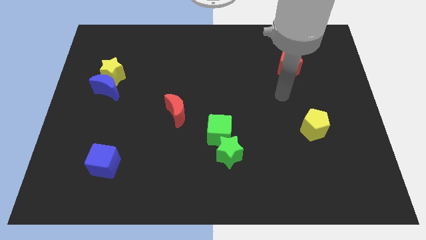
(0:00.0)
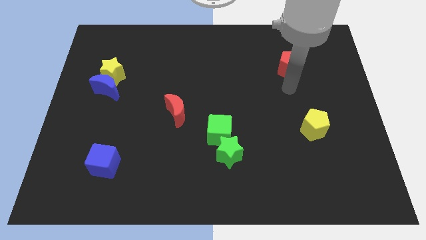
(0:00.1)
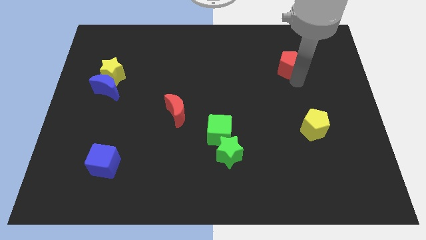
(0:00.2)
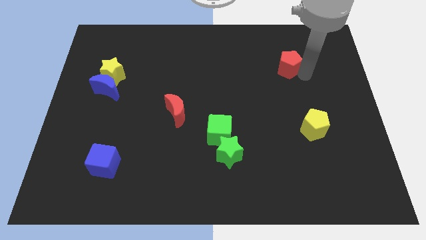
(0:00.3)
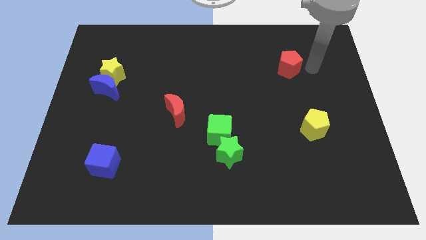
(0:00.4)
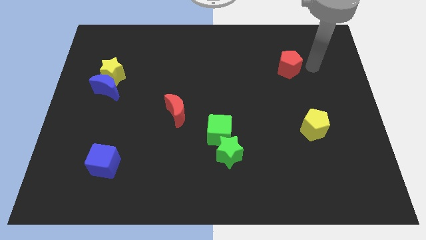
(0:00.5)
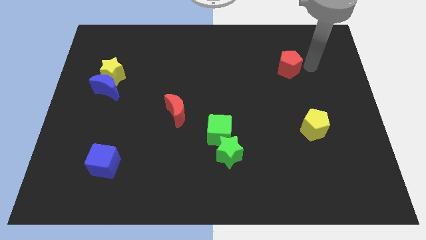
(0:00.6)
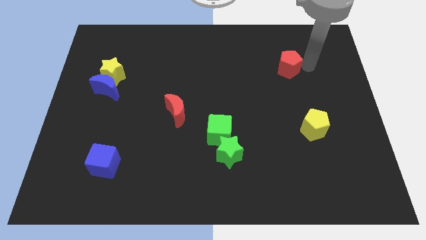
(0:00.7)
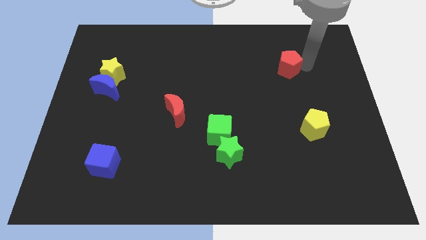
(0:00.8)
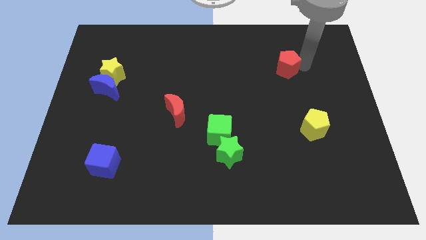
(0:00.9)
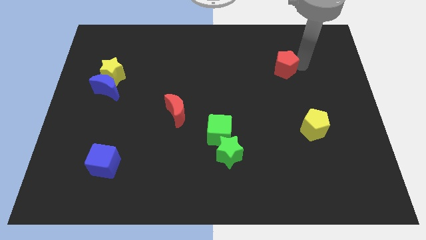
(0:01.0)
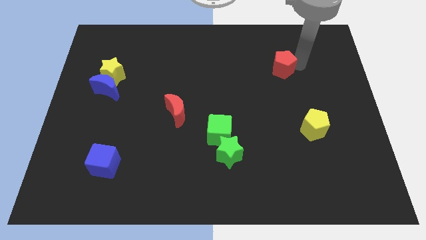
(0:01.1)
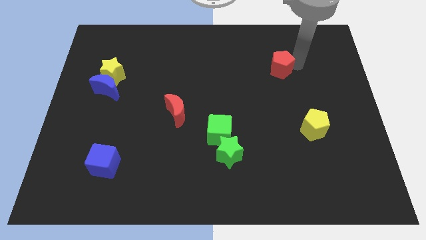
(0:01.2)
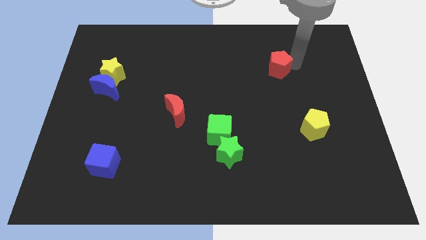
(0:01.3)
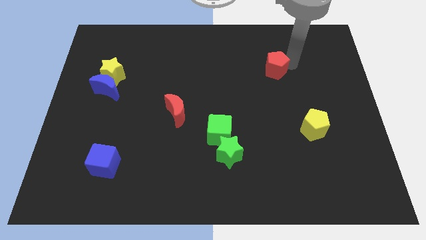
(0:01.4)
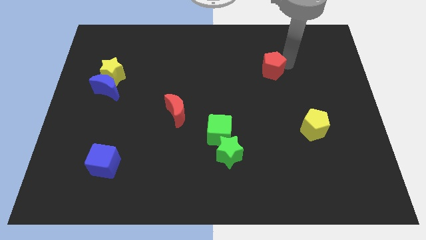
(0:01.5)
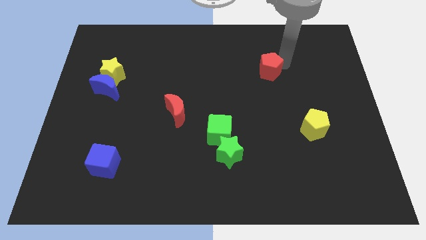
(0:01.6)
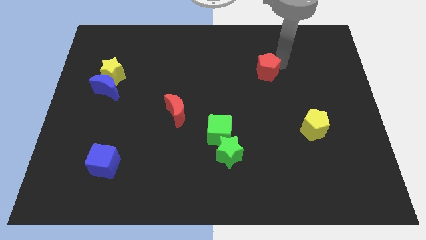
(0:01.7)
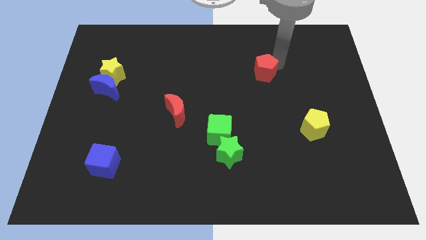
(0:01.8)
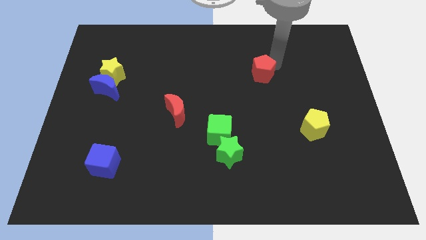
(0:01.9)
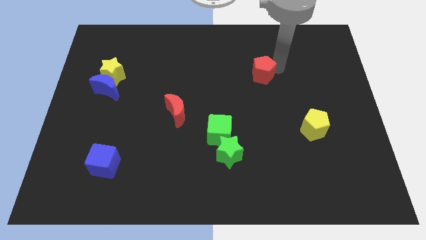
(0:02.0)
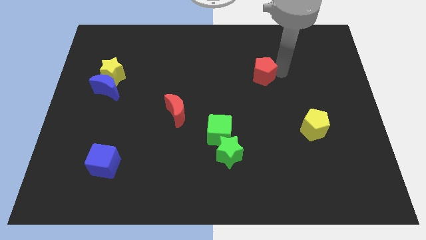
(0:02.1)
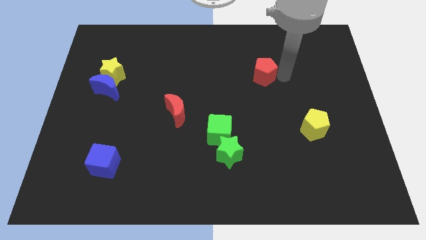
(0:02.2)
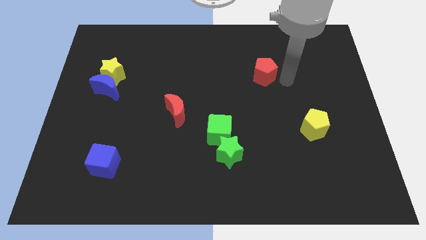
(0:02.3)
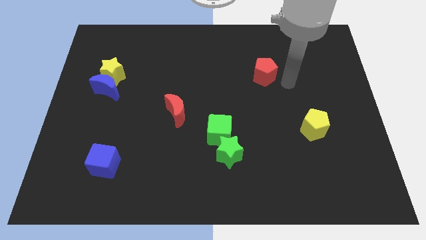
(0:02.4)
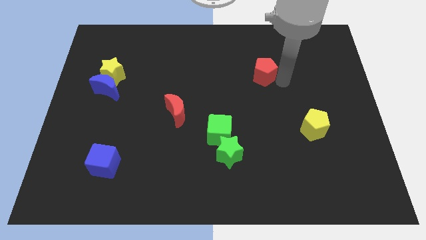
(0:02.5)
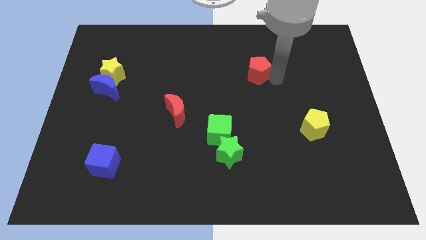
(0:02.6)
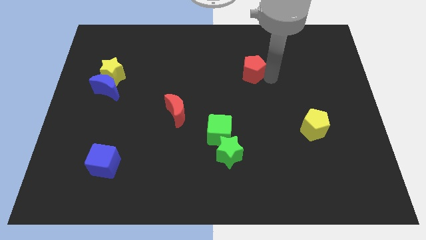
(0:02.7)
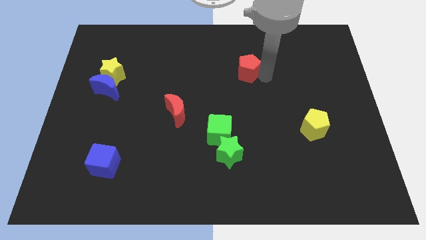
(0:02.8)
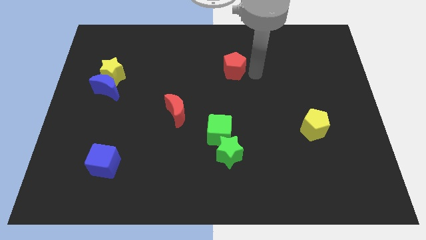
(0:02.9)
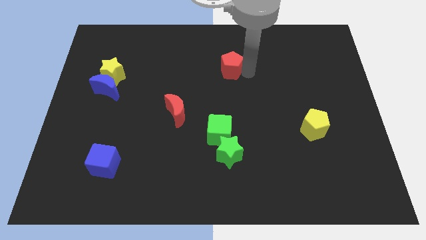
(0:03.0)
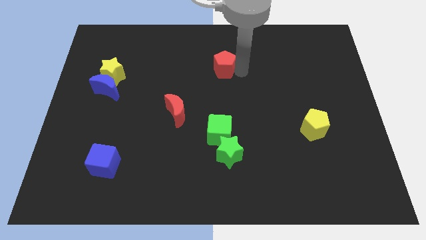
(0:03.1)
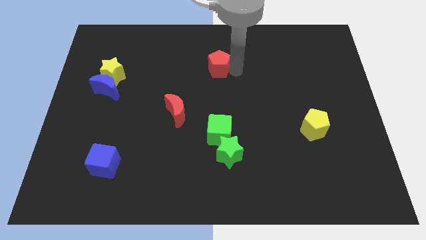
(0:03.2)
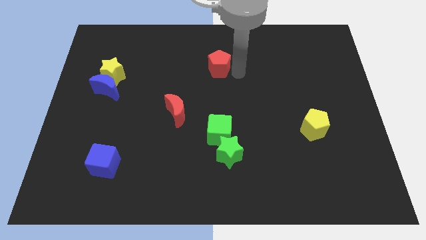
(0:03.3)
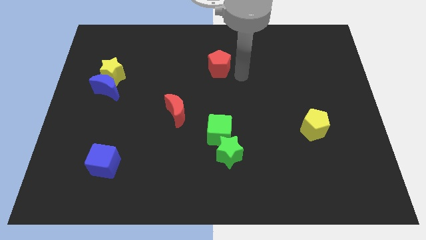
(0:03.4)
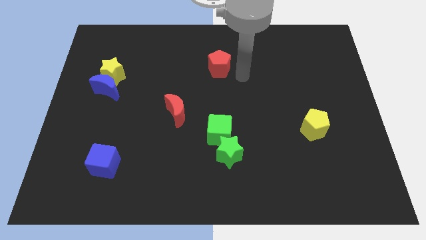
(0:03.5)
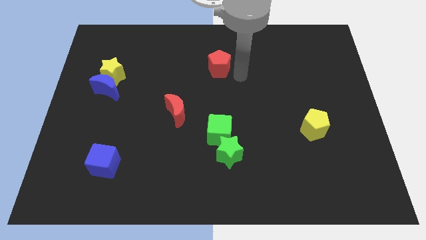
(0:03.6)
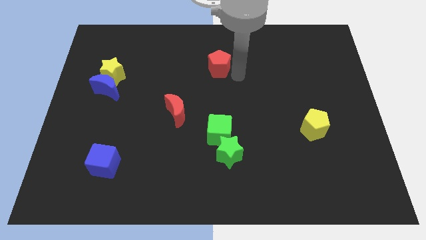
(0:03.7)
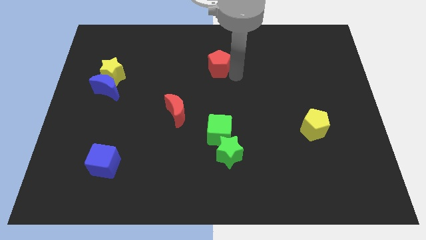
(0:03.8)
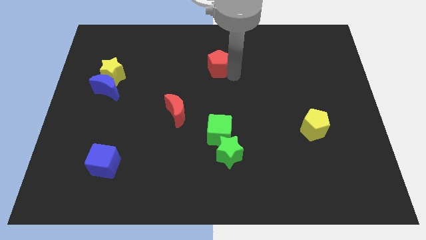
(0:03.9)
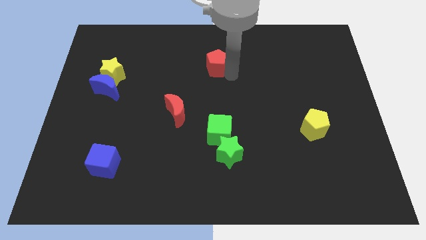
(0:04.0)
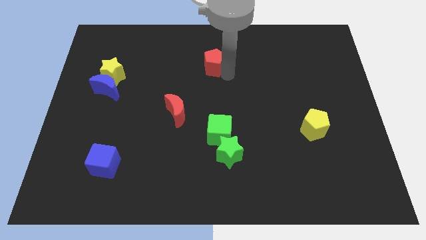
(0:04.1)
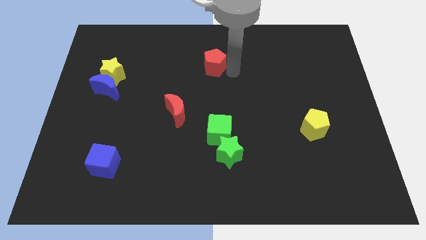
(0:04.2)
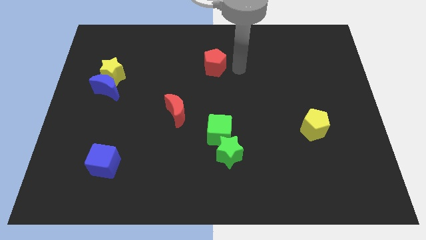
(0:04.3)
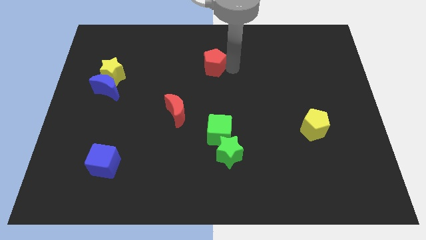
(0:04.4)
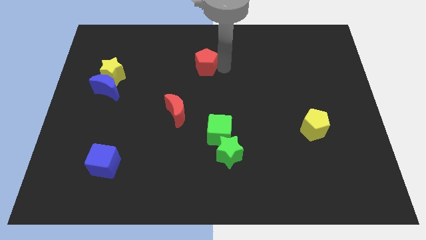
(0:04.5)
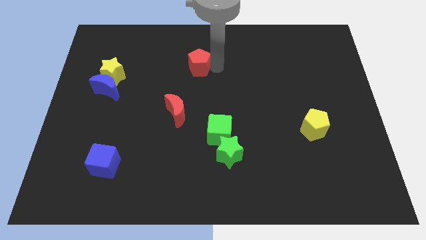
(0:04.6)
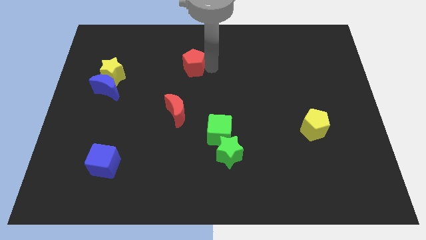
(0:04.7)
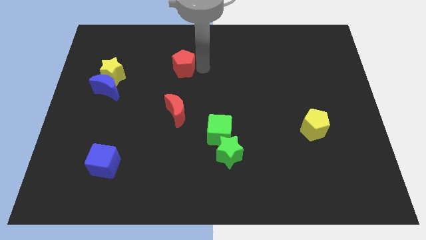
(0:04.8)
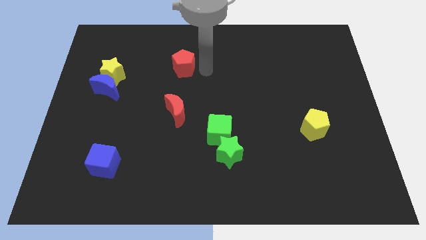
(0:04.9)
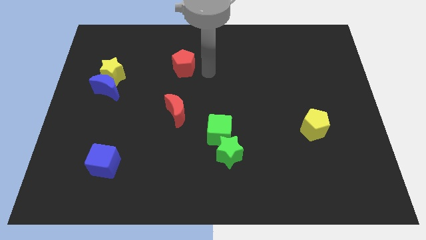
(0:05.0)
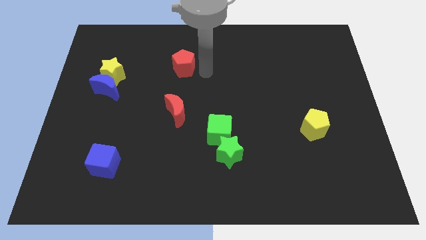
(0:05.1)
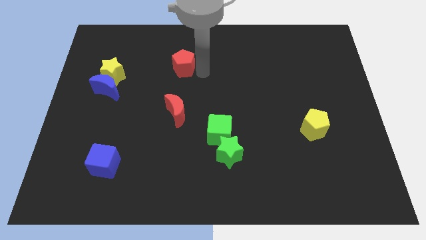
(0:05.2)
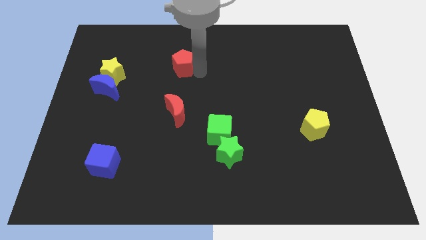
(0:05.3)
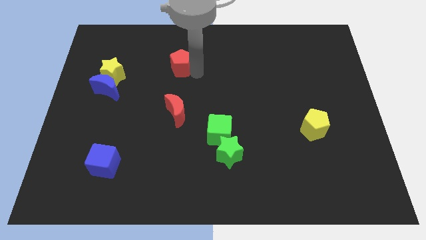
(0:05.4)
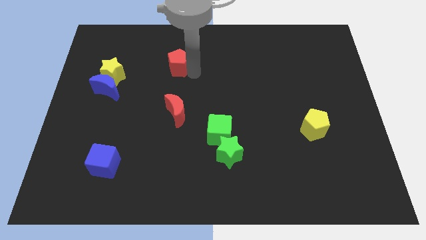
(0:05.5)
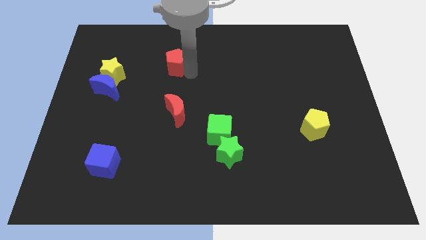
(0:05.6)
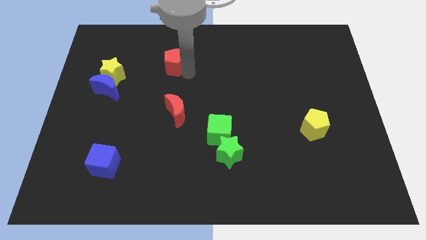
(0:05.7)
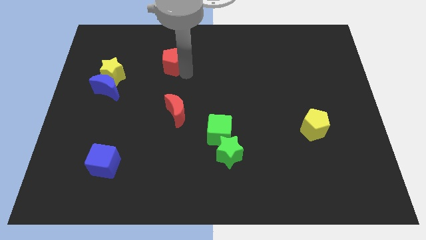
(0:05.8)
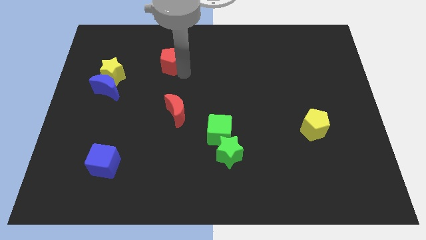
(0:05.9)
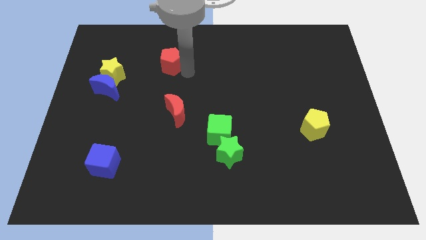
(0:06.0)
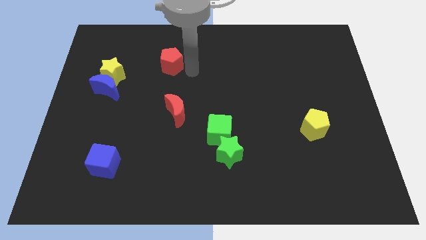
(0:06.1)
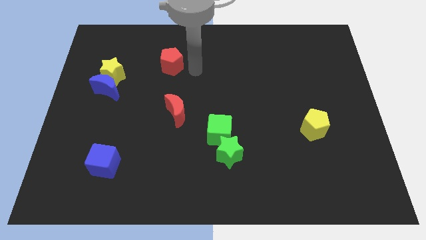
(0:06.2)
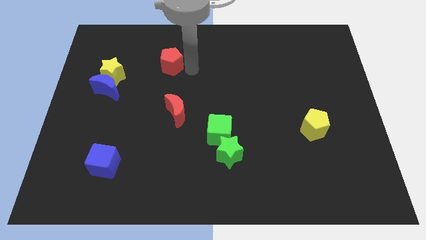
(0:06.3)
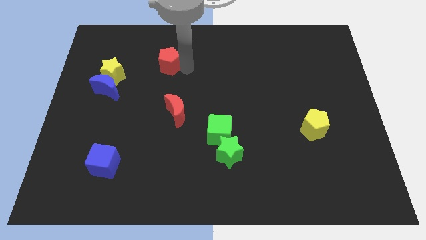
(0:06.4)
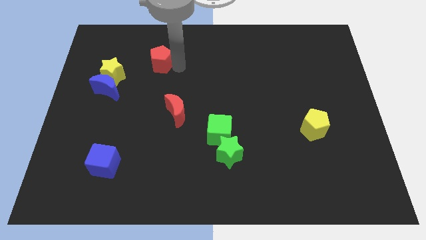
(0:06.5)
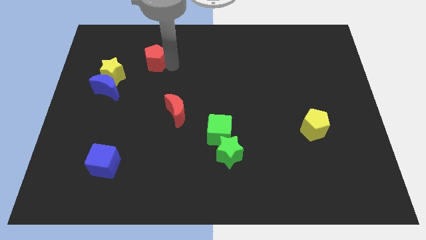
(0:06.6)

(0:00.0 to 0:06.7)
put the red pentagon diagonally up and to the right of the yellow star
